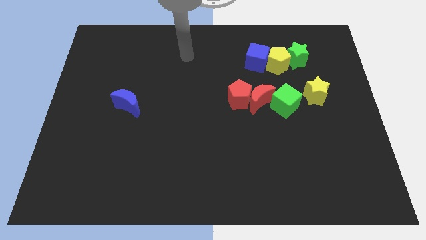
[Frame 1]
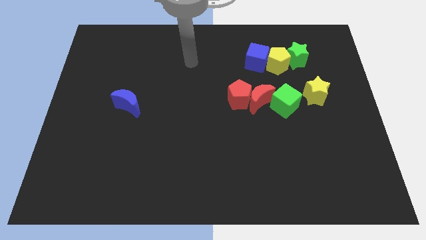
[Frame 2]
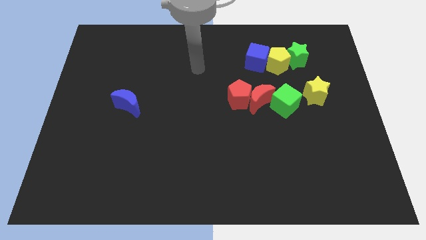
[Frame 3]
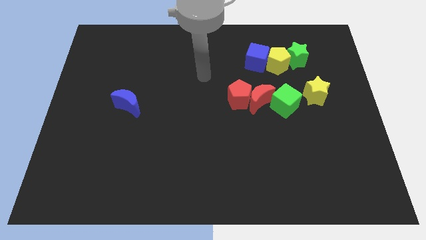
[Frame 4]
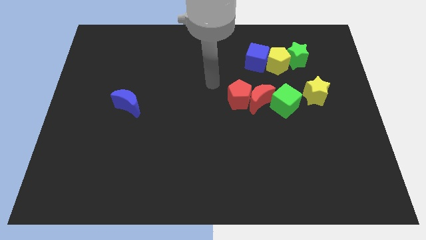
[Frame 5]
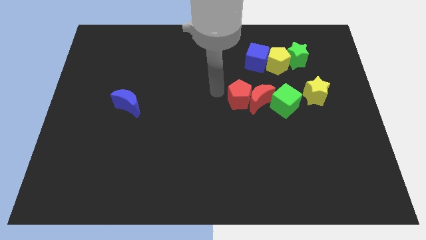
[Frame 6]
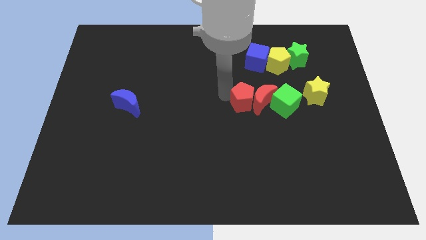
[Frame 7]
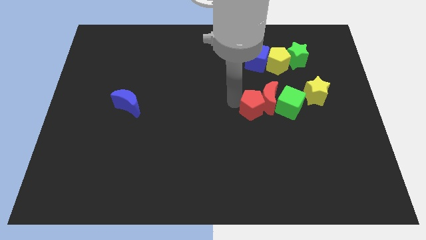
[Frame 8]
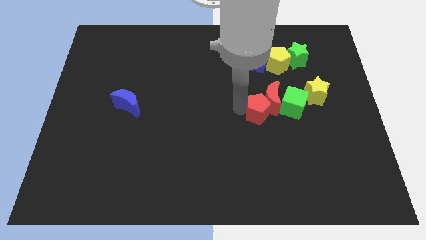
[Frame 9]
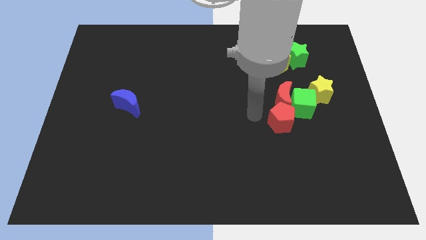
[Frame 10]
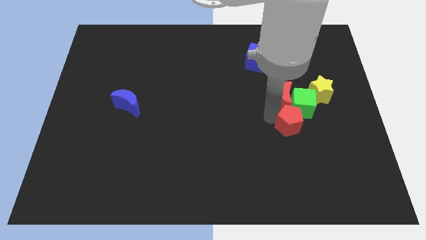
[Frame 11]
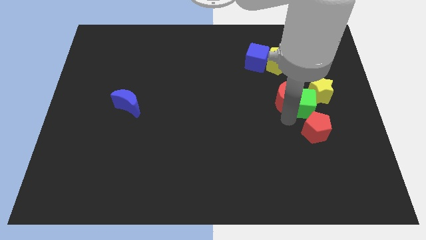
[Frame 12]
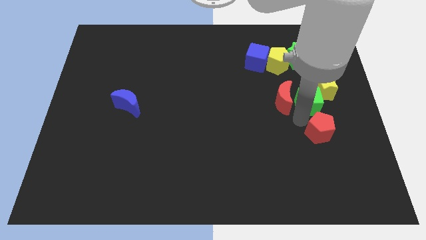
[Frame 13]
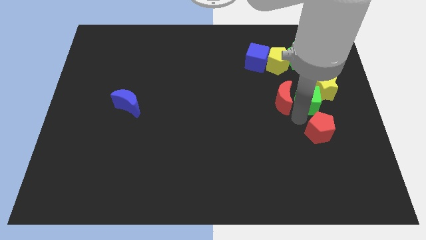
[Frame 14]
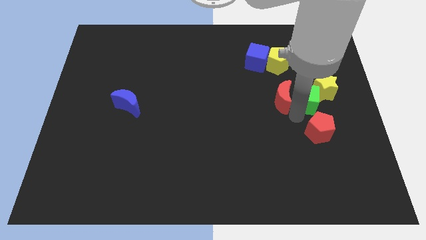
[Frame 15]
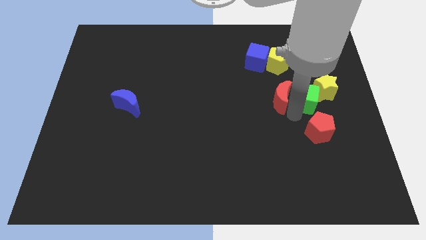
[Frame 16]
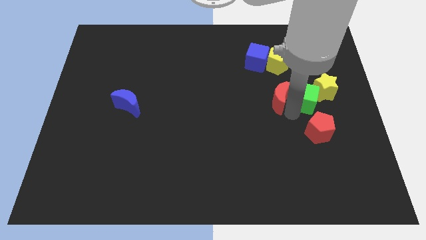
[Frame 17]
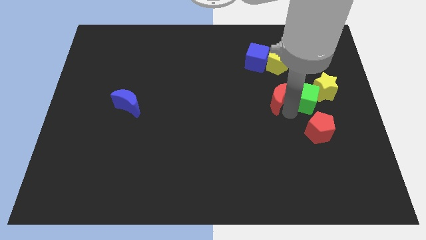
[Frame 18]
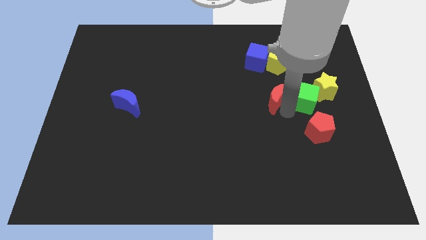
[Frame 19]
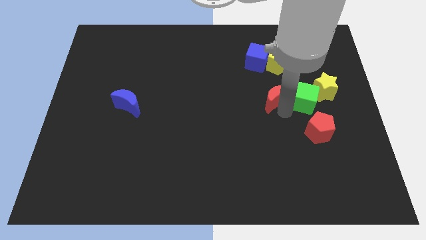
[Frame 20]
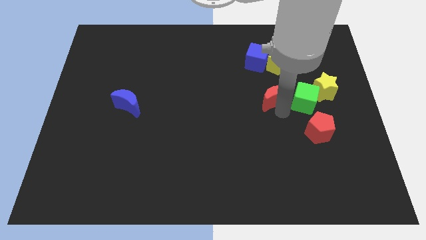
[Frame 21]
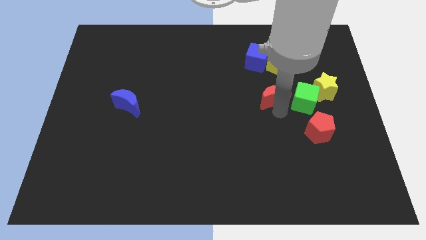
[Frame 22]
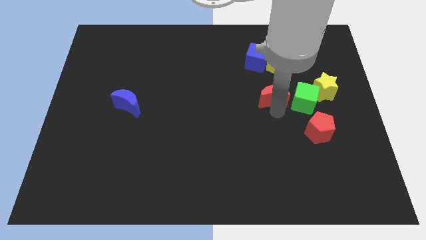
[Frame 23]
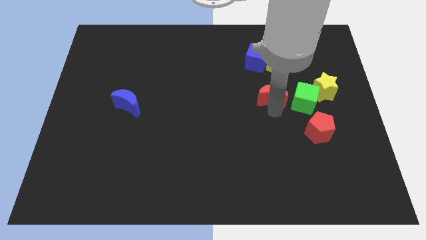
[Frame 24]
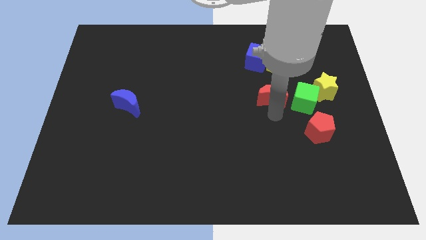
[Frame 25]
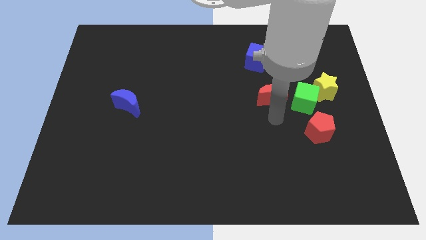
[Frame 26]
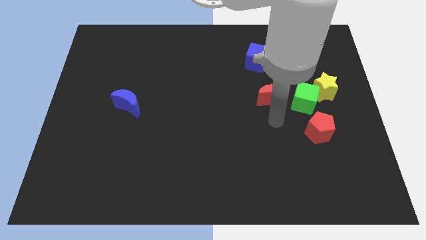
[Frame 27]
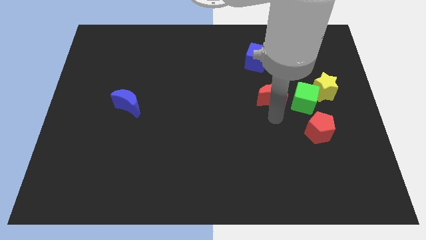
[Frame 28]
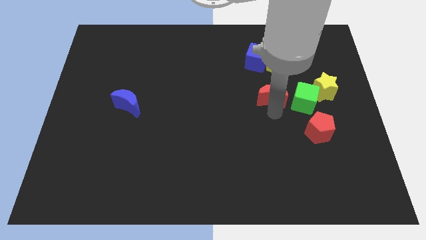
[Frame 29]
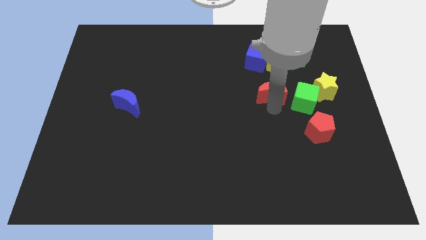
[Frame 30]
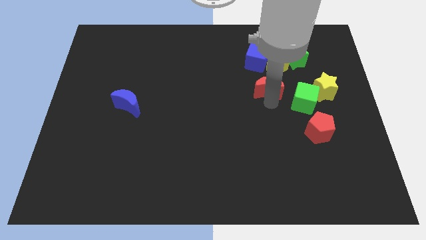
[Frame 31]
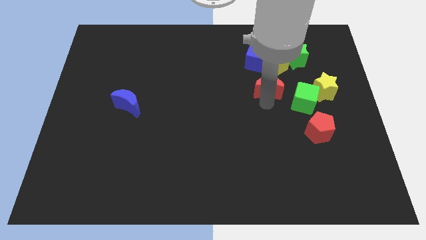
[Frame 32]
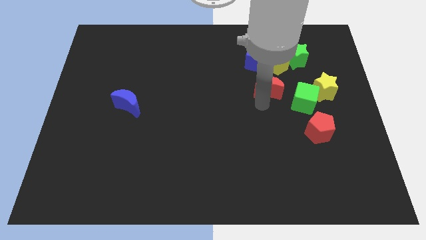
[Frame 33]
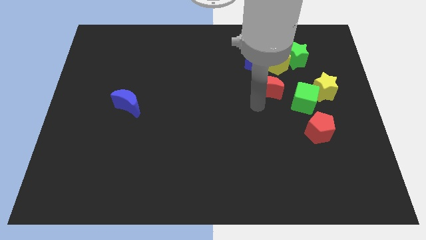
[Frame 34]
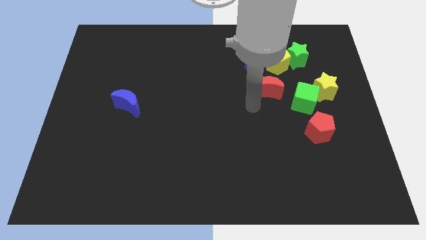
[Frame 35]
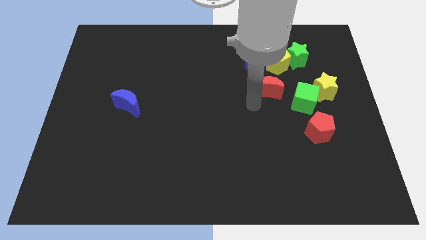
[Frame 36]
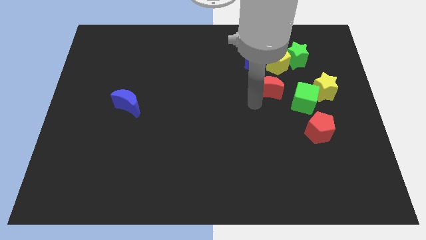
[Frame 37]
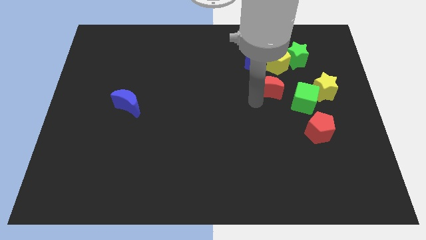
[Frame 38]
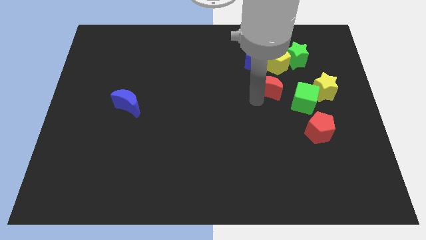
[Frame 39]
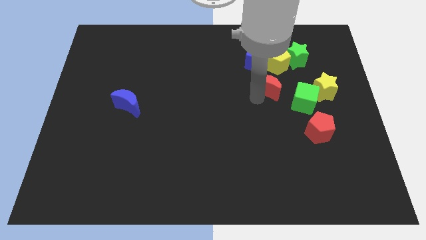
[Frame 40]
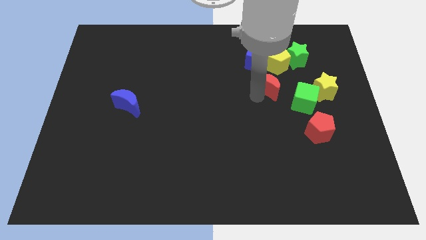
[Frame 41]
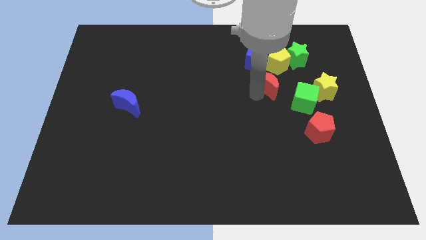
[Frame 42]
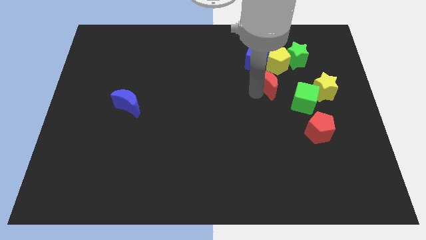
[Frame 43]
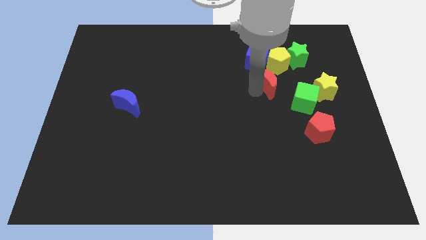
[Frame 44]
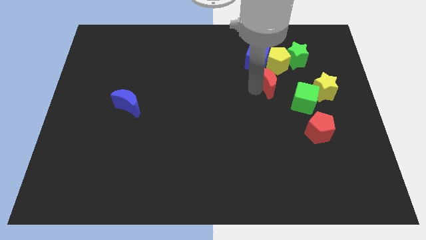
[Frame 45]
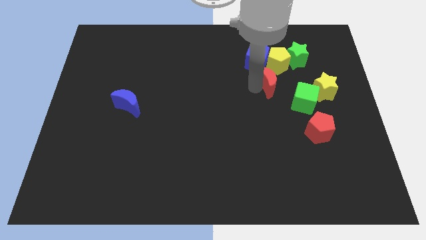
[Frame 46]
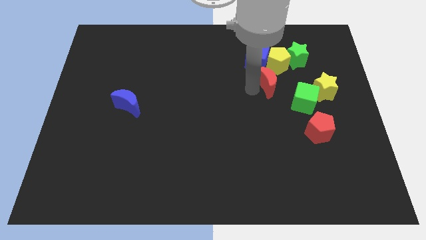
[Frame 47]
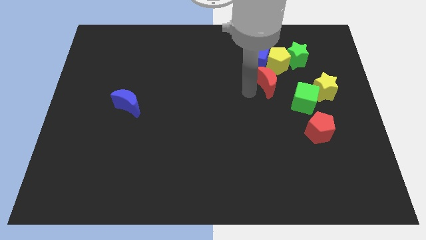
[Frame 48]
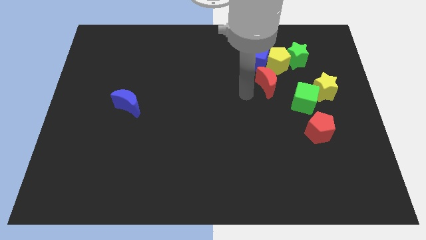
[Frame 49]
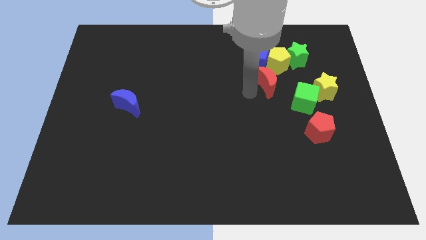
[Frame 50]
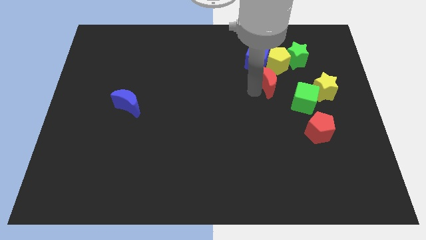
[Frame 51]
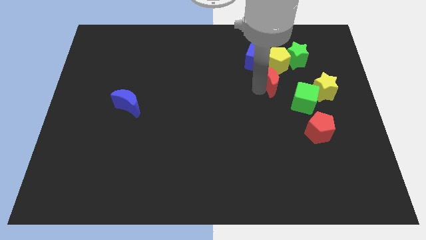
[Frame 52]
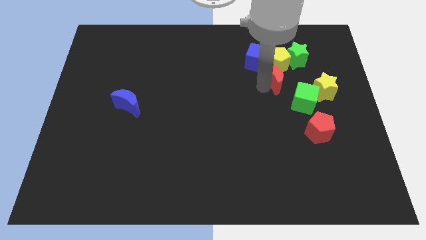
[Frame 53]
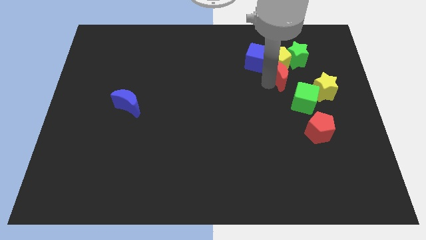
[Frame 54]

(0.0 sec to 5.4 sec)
slide the red moon to the bottom right of the yellow pentagon

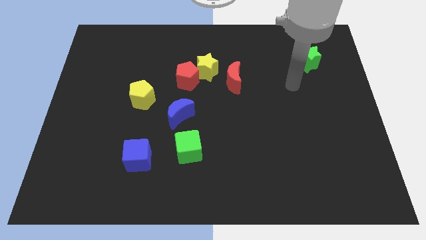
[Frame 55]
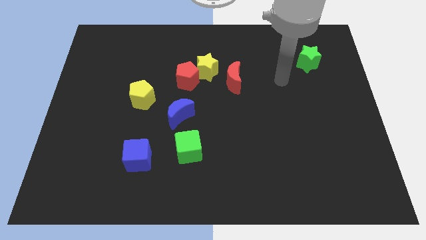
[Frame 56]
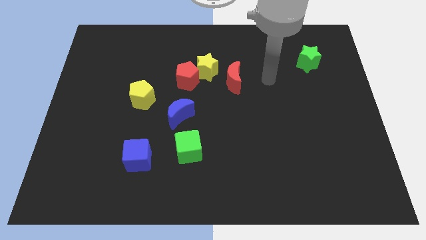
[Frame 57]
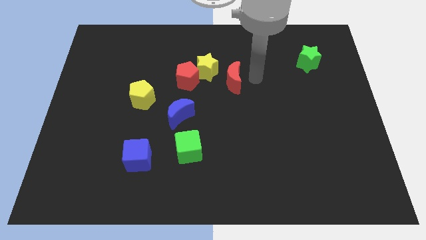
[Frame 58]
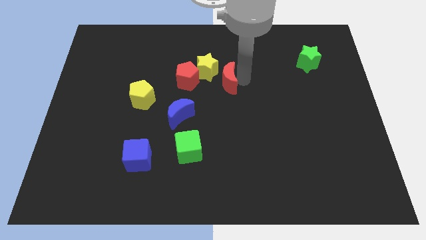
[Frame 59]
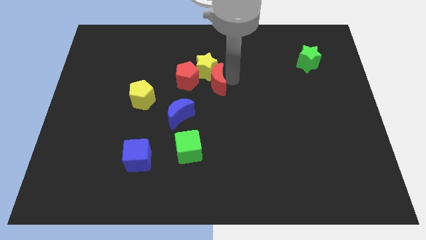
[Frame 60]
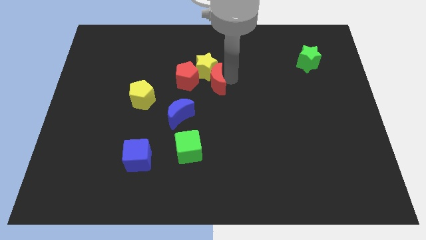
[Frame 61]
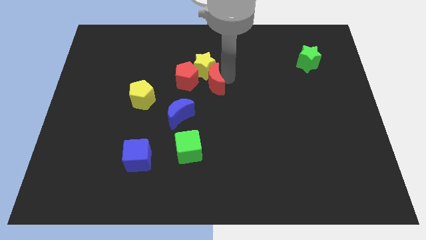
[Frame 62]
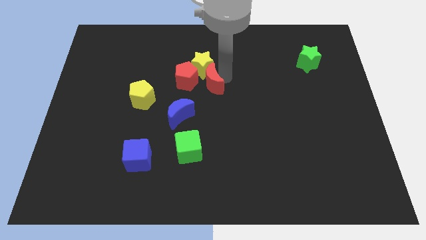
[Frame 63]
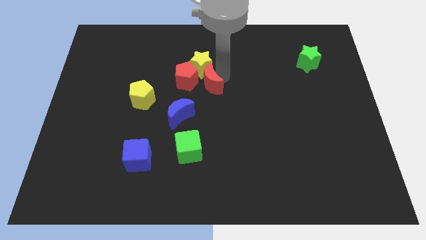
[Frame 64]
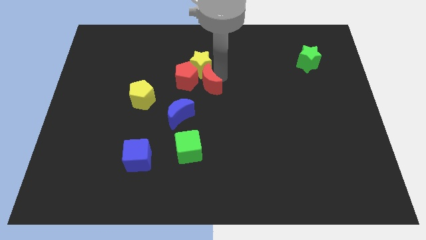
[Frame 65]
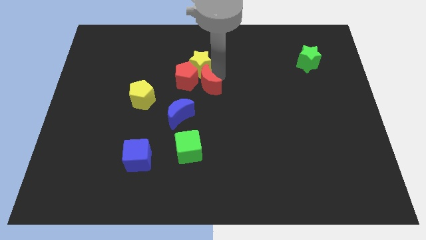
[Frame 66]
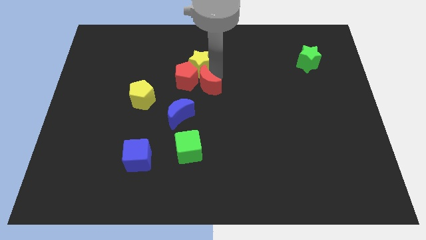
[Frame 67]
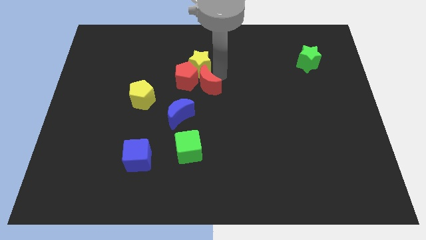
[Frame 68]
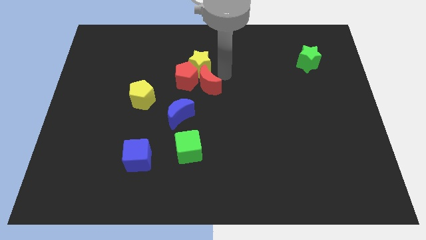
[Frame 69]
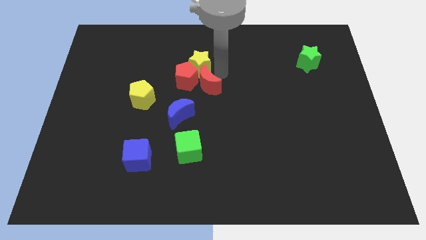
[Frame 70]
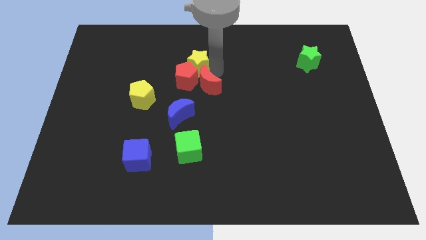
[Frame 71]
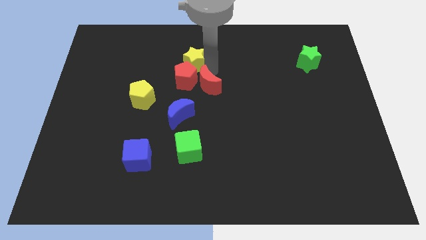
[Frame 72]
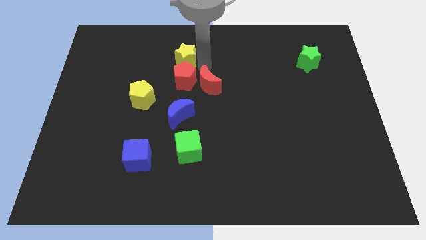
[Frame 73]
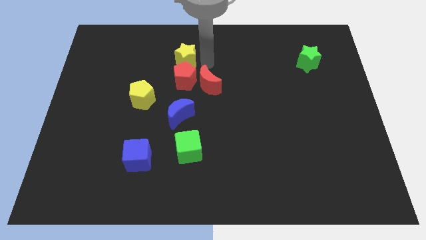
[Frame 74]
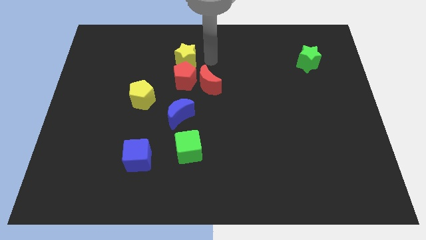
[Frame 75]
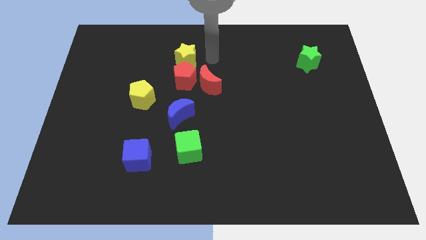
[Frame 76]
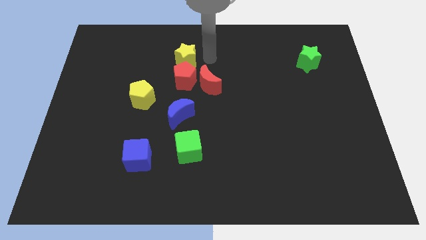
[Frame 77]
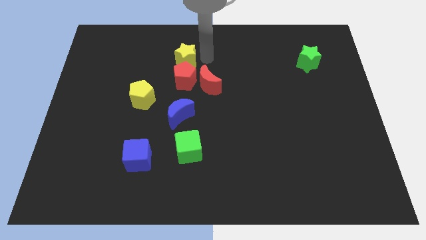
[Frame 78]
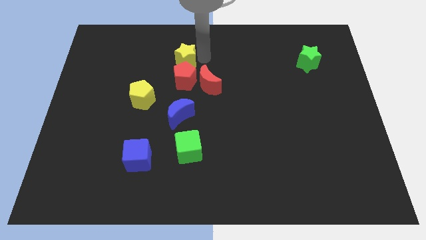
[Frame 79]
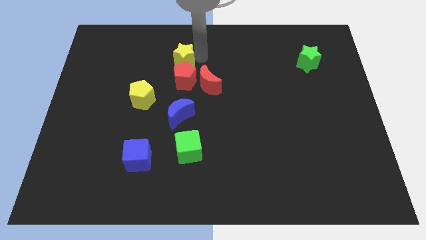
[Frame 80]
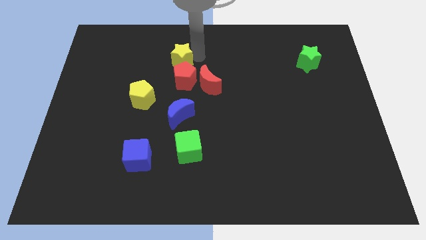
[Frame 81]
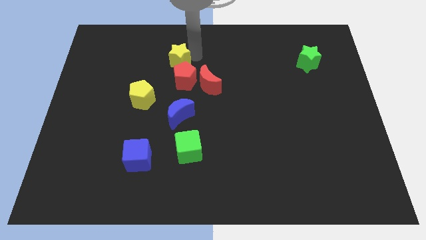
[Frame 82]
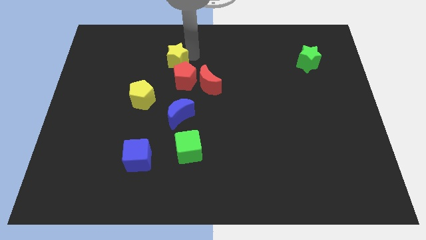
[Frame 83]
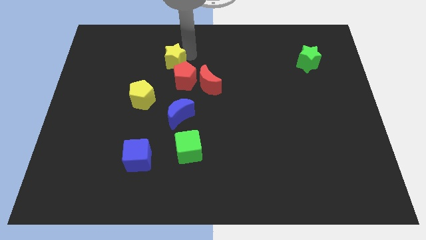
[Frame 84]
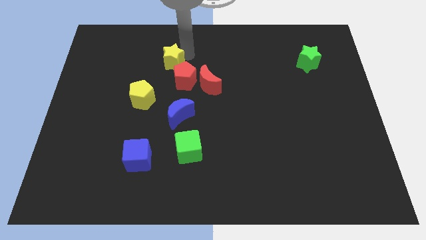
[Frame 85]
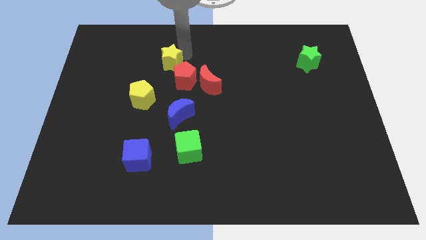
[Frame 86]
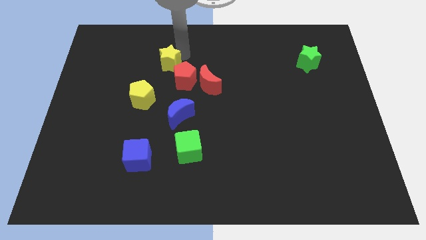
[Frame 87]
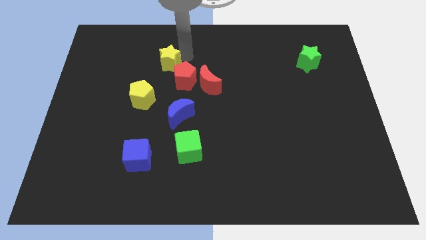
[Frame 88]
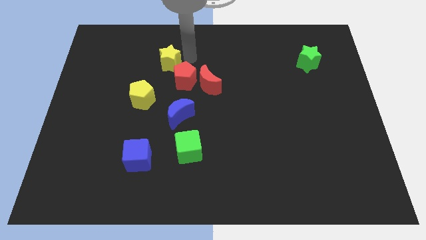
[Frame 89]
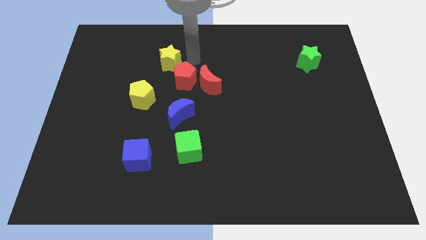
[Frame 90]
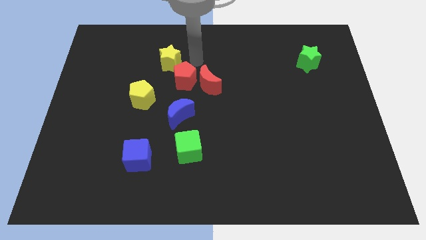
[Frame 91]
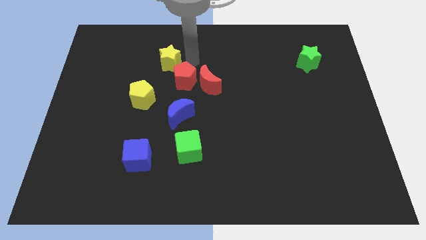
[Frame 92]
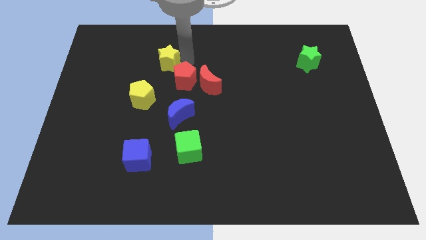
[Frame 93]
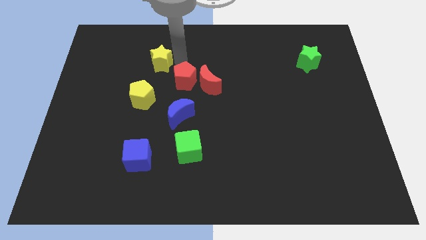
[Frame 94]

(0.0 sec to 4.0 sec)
move the yellow star above the yellow pentagon
